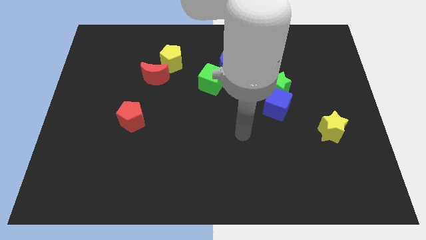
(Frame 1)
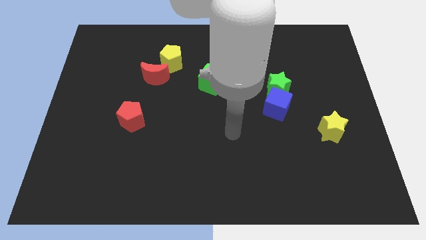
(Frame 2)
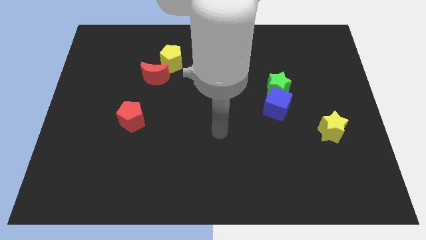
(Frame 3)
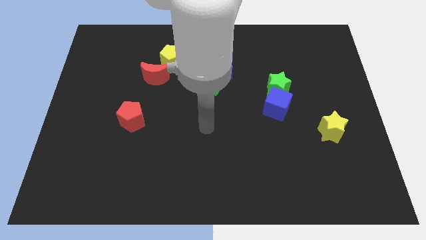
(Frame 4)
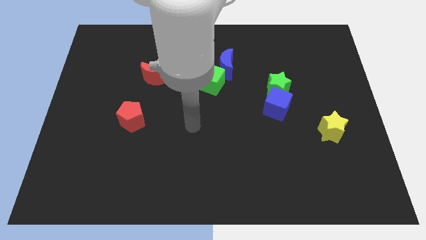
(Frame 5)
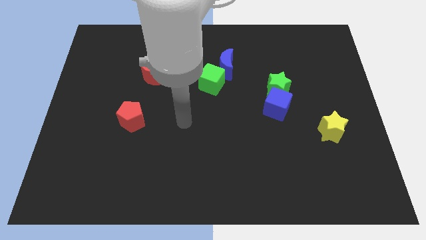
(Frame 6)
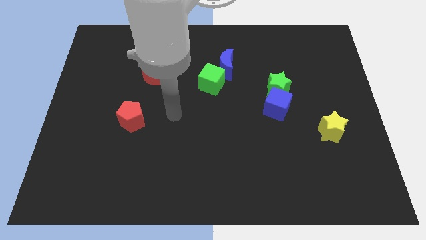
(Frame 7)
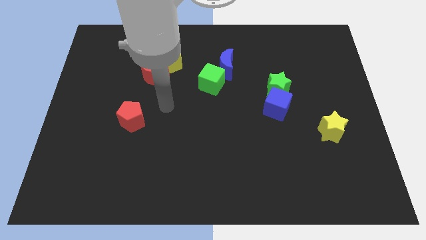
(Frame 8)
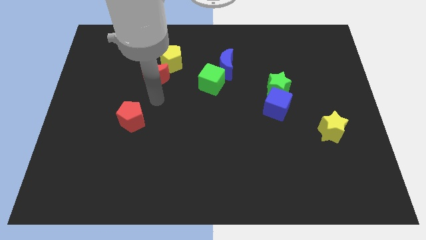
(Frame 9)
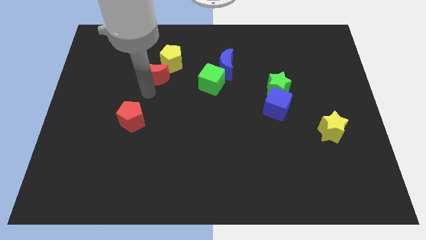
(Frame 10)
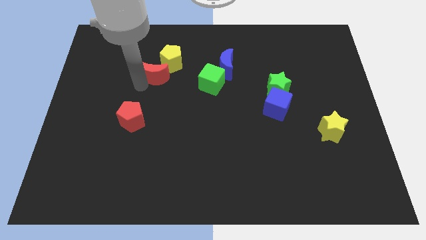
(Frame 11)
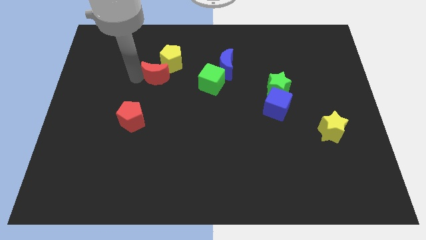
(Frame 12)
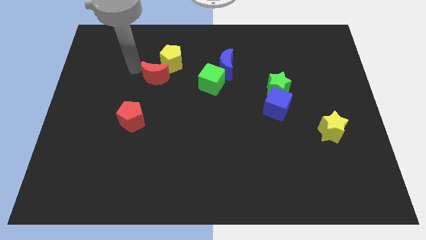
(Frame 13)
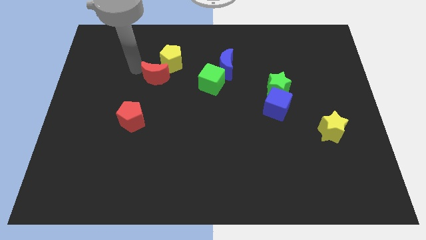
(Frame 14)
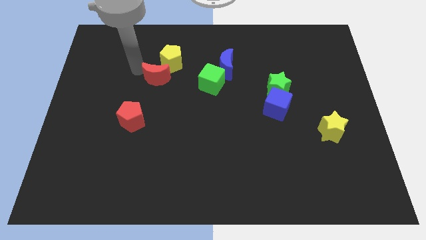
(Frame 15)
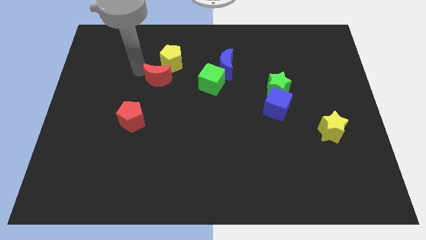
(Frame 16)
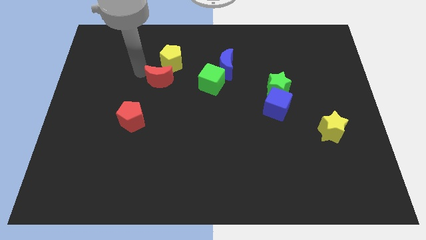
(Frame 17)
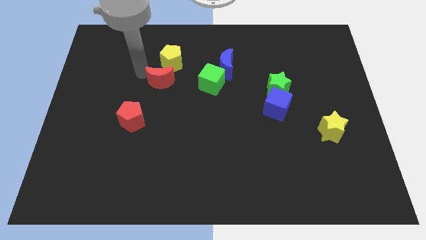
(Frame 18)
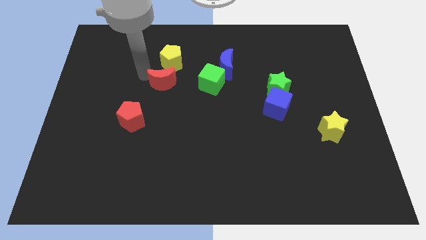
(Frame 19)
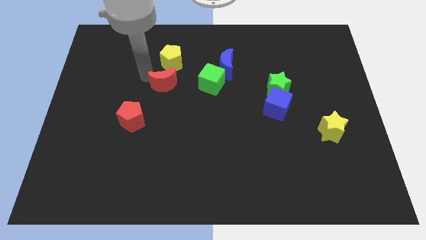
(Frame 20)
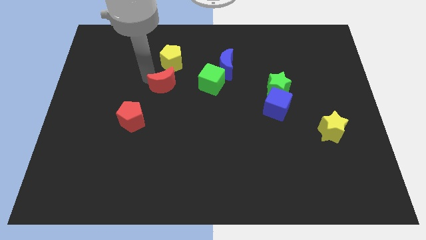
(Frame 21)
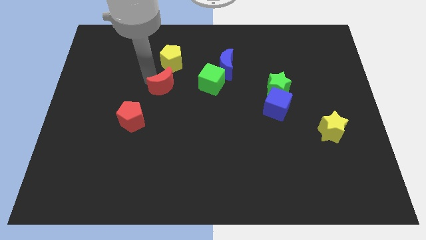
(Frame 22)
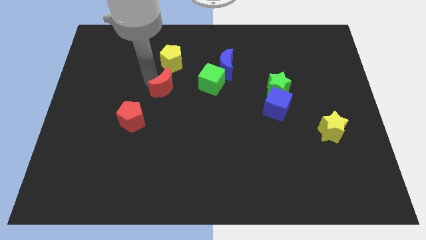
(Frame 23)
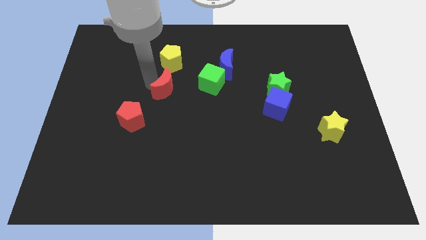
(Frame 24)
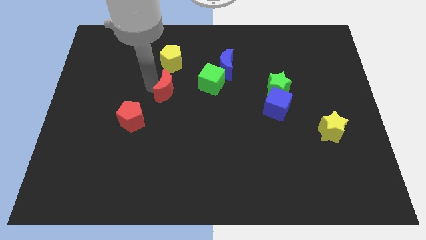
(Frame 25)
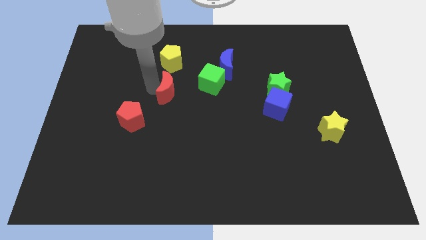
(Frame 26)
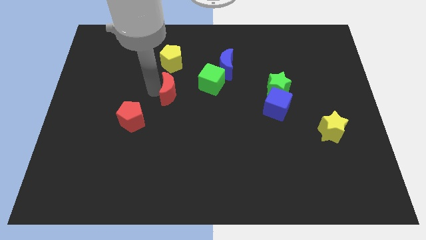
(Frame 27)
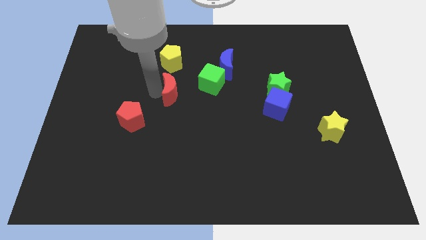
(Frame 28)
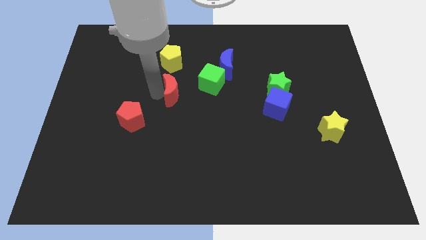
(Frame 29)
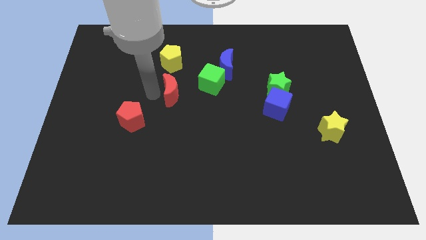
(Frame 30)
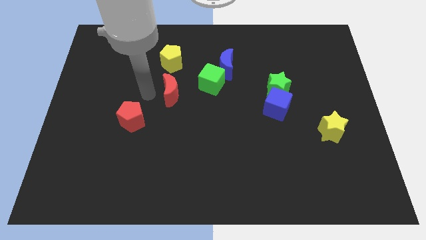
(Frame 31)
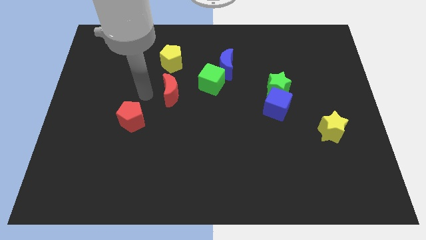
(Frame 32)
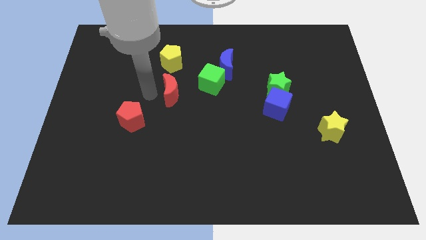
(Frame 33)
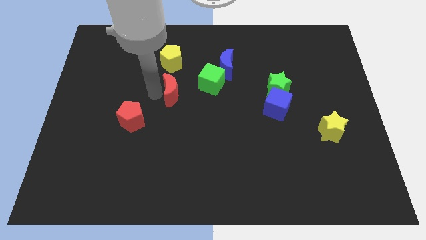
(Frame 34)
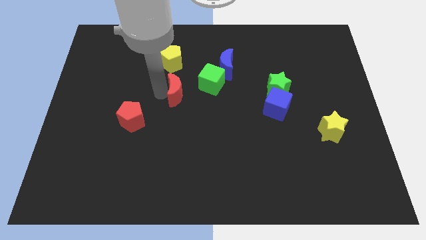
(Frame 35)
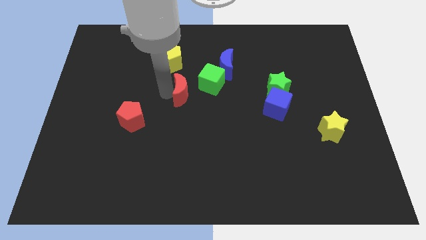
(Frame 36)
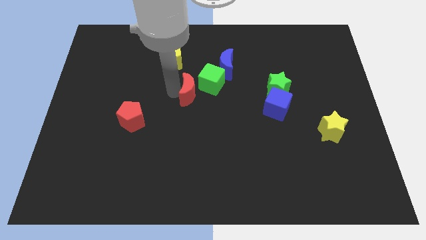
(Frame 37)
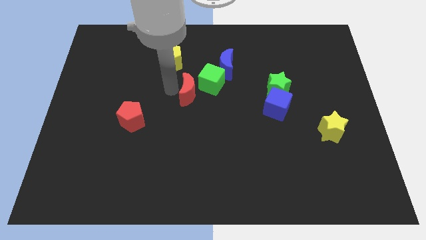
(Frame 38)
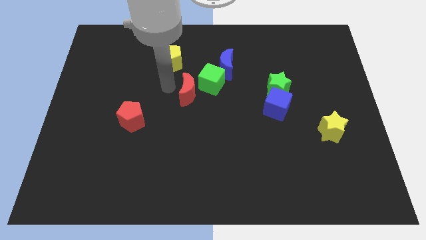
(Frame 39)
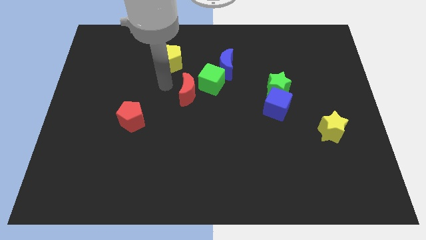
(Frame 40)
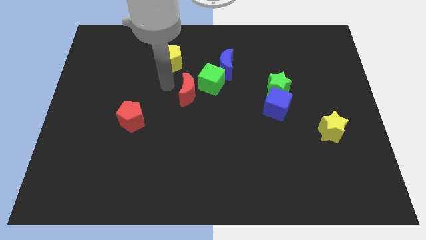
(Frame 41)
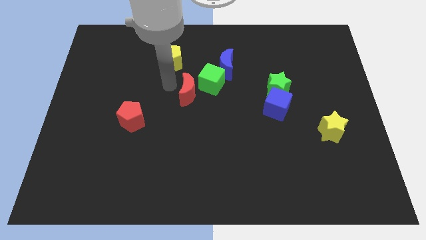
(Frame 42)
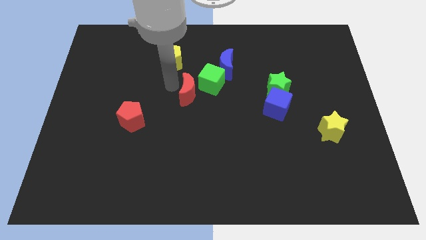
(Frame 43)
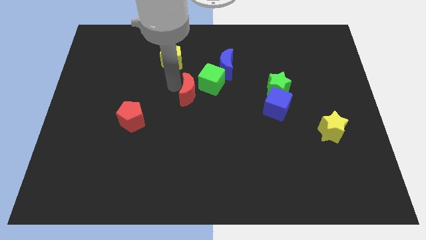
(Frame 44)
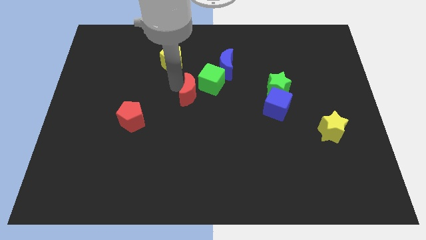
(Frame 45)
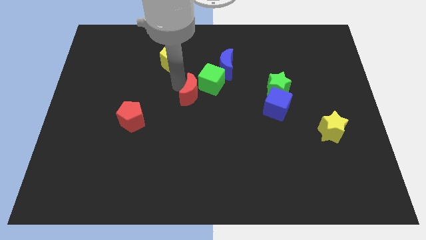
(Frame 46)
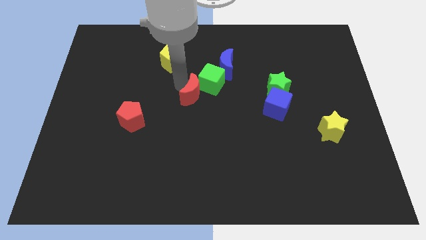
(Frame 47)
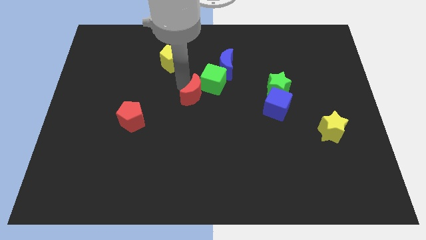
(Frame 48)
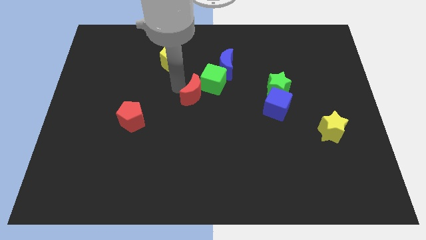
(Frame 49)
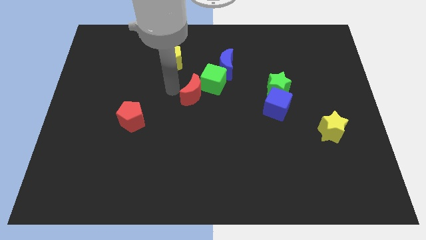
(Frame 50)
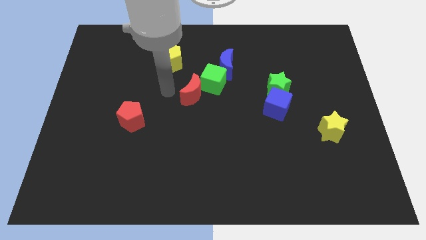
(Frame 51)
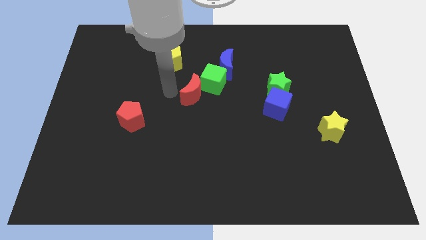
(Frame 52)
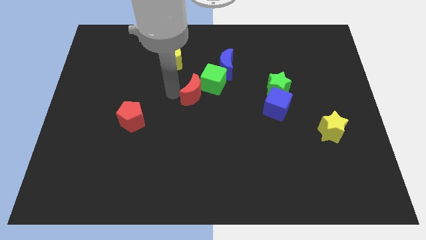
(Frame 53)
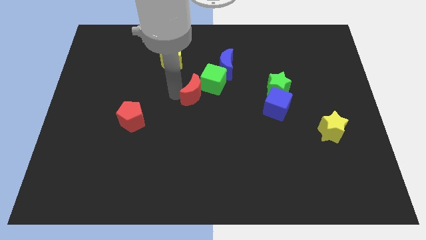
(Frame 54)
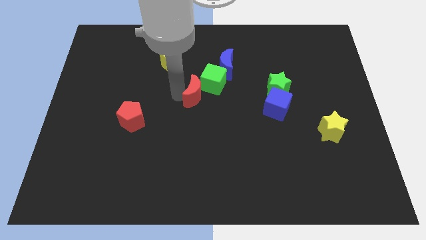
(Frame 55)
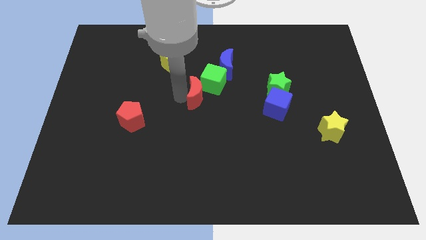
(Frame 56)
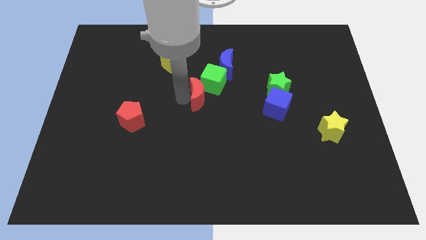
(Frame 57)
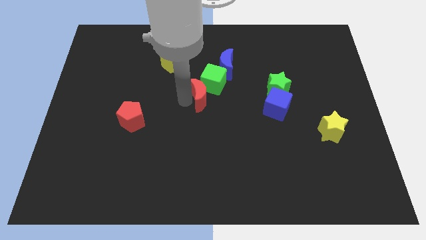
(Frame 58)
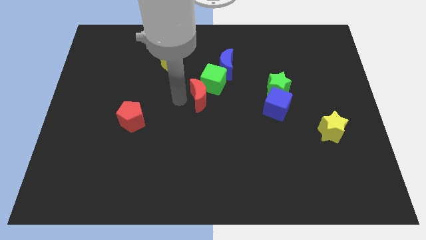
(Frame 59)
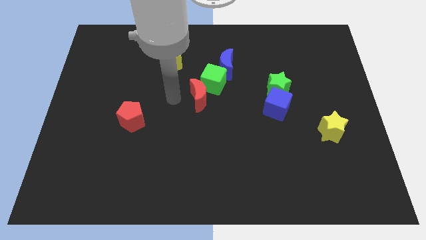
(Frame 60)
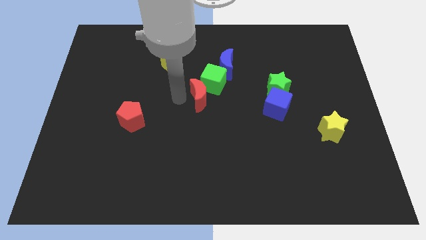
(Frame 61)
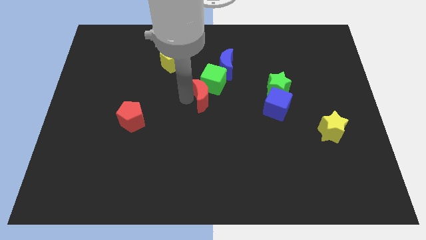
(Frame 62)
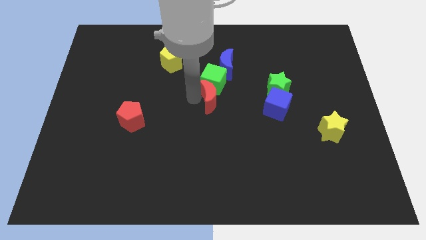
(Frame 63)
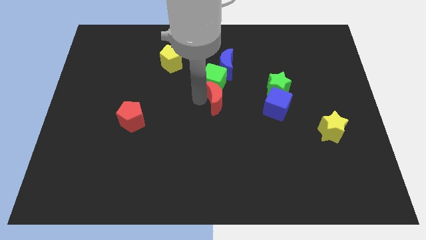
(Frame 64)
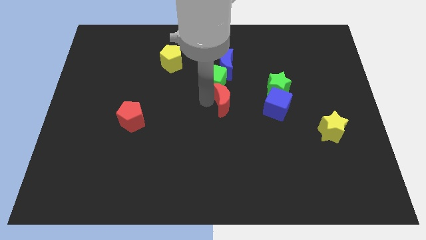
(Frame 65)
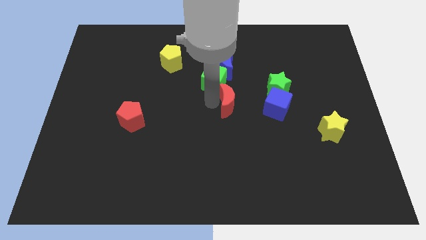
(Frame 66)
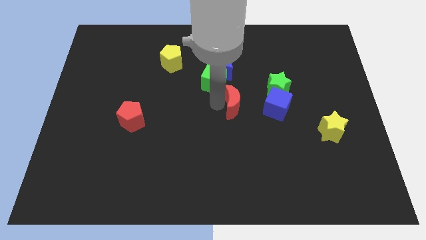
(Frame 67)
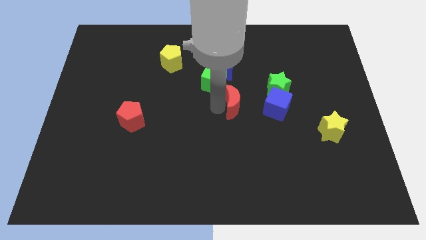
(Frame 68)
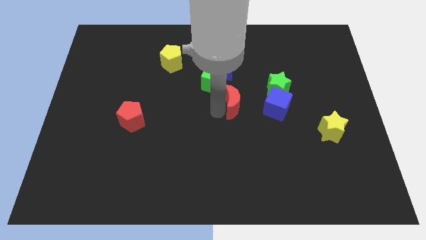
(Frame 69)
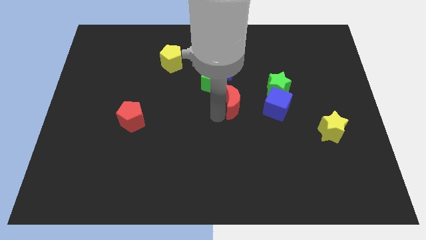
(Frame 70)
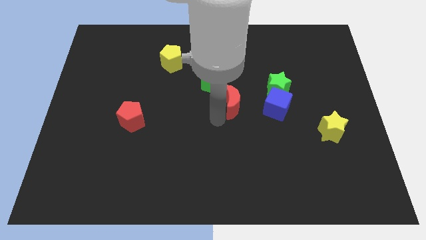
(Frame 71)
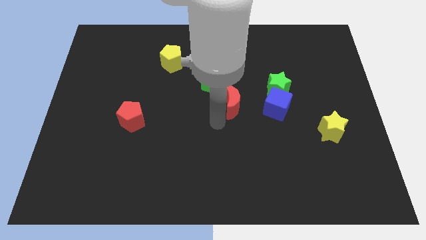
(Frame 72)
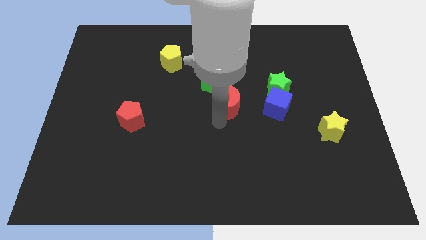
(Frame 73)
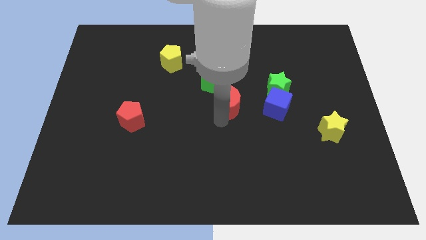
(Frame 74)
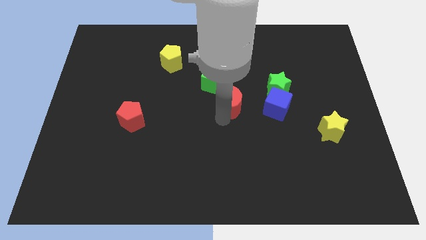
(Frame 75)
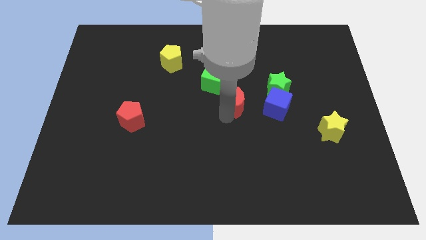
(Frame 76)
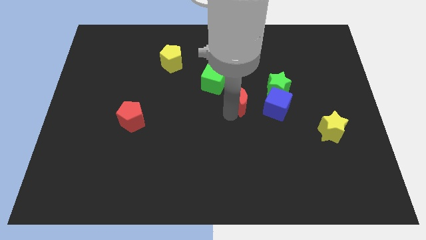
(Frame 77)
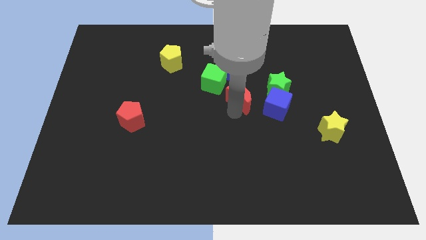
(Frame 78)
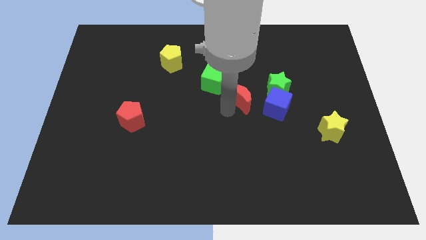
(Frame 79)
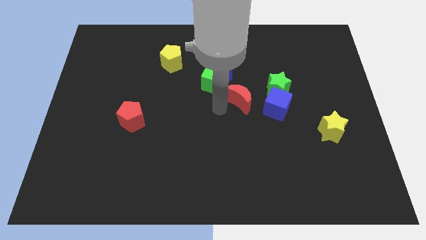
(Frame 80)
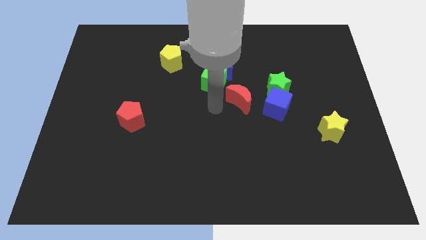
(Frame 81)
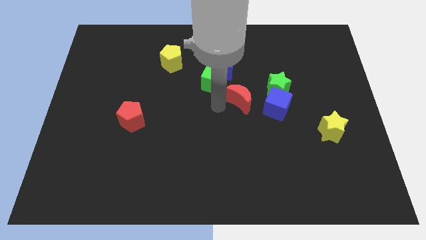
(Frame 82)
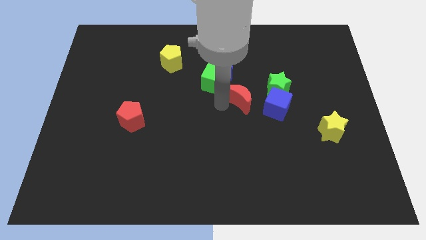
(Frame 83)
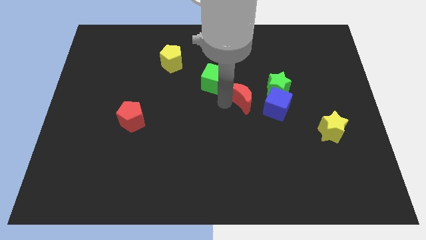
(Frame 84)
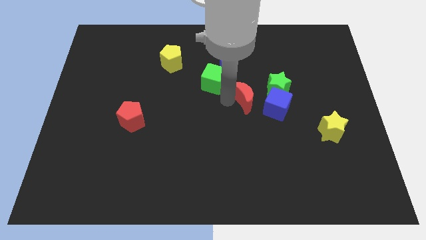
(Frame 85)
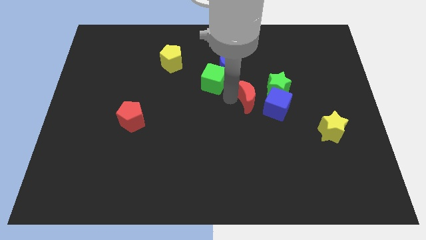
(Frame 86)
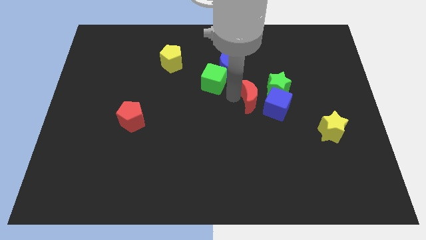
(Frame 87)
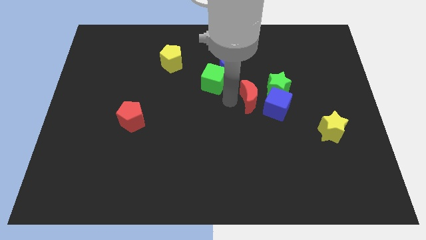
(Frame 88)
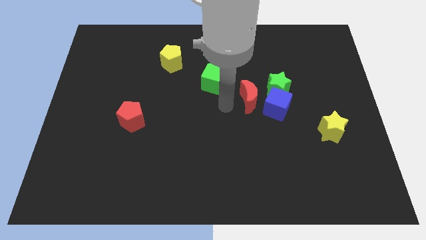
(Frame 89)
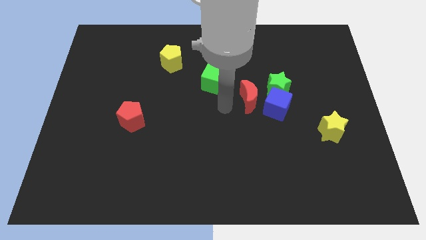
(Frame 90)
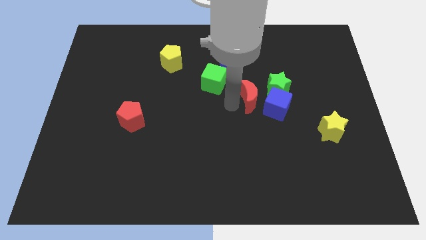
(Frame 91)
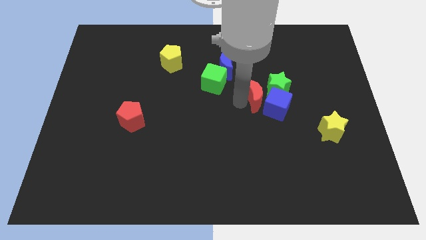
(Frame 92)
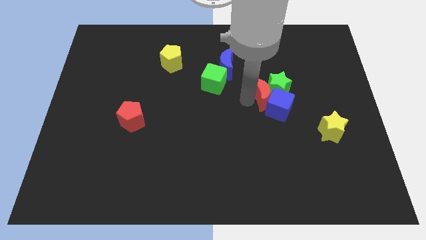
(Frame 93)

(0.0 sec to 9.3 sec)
put the red moon to the green star
